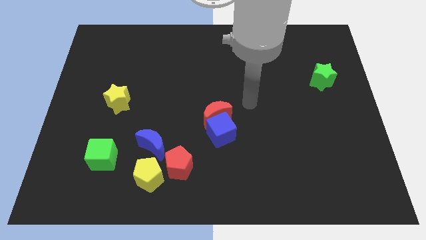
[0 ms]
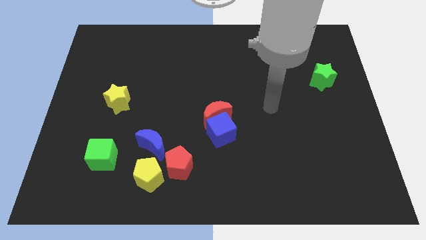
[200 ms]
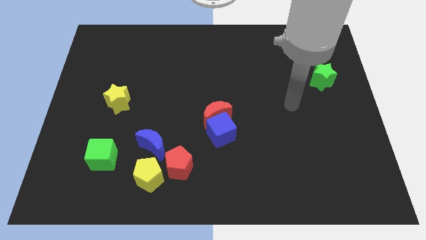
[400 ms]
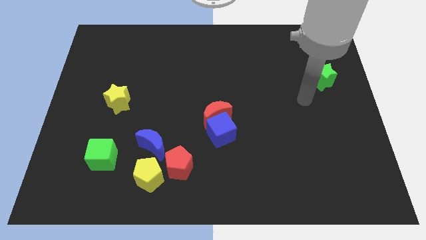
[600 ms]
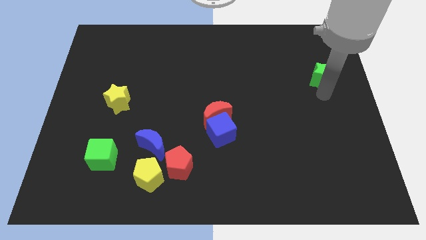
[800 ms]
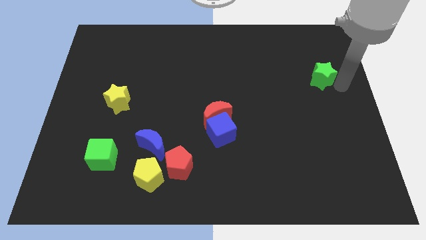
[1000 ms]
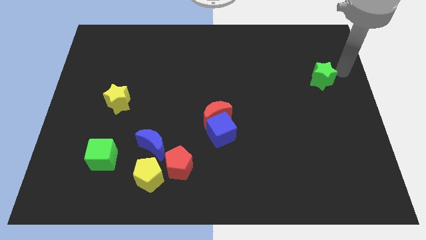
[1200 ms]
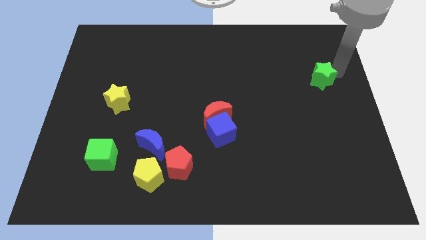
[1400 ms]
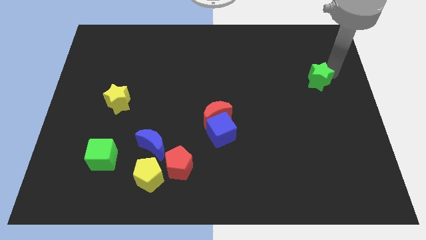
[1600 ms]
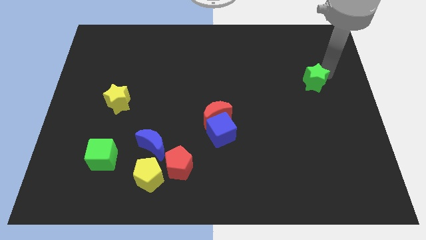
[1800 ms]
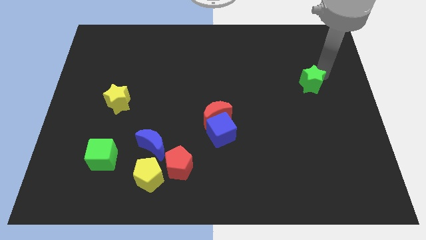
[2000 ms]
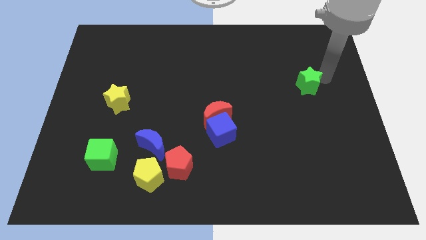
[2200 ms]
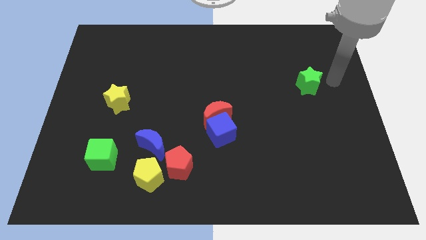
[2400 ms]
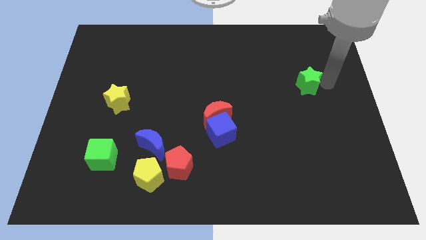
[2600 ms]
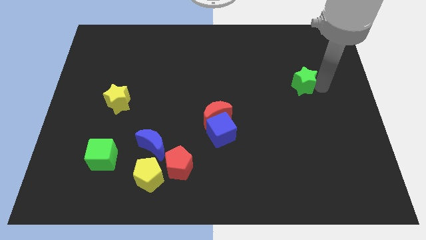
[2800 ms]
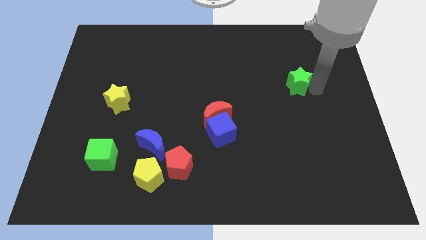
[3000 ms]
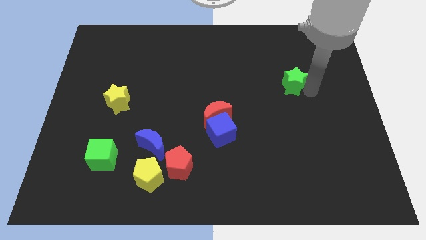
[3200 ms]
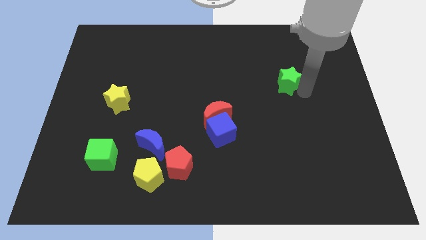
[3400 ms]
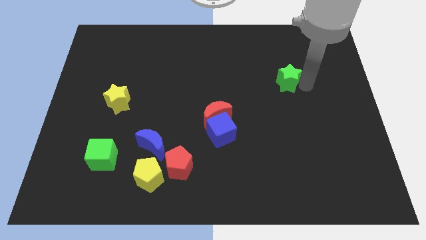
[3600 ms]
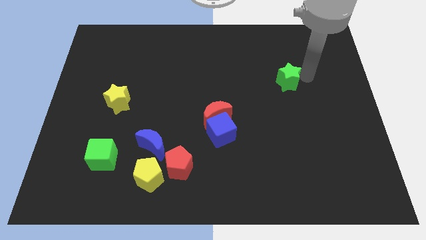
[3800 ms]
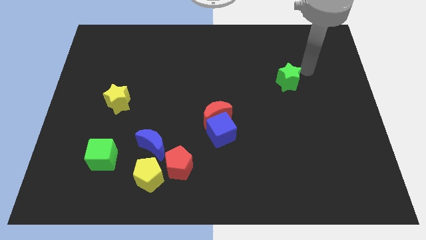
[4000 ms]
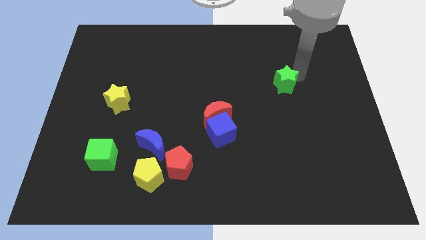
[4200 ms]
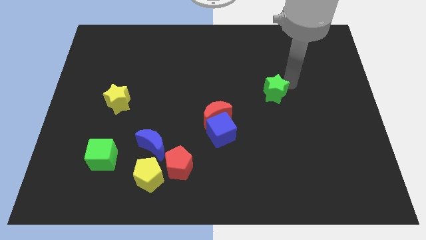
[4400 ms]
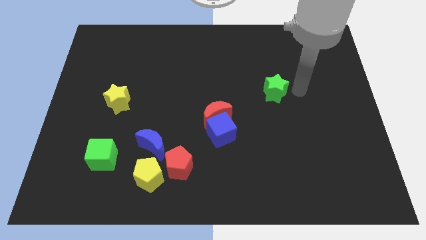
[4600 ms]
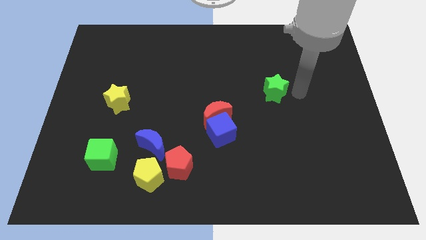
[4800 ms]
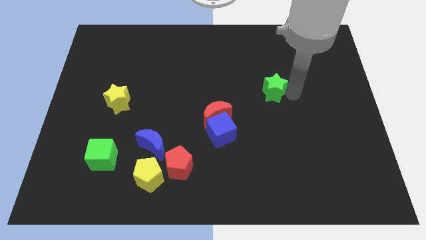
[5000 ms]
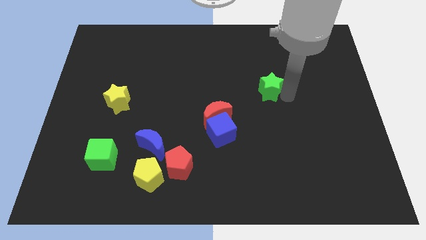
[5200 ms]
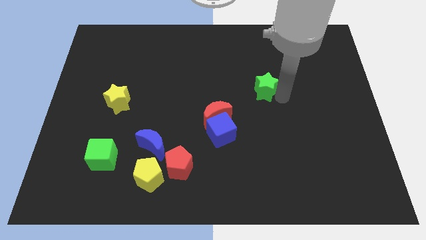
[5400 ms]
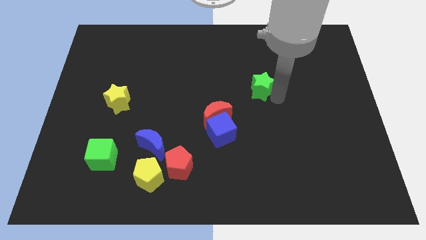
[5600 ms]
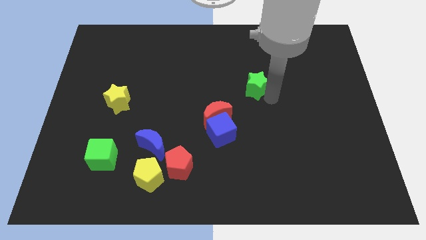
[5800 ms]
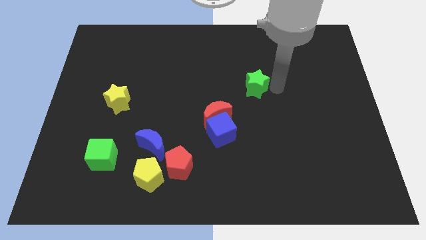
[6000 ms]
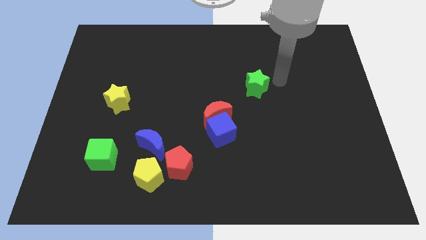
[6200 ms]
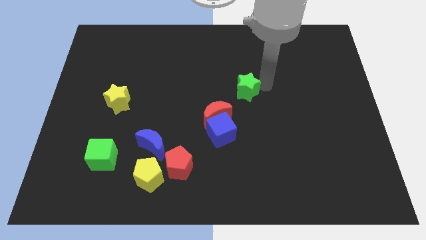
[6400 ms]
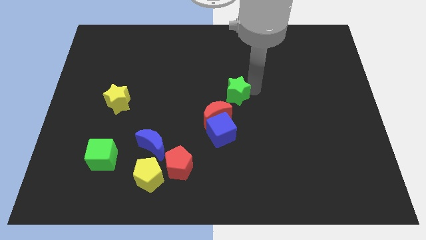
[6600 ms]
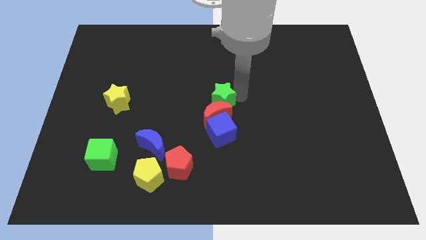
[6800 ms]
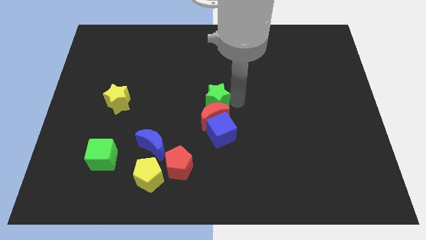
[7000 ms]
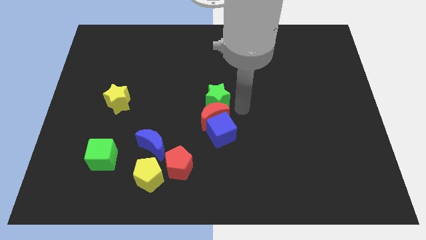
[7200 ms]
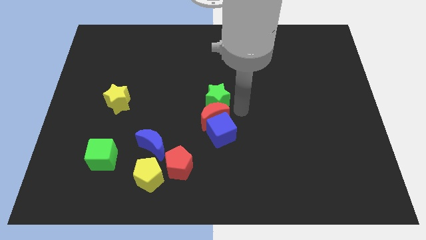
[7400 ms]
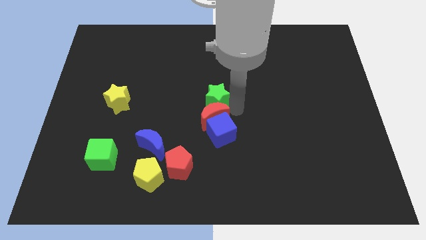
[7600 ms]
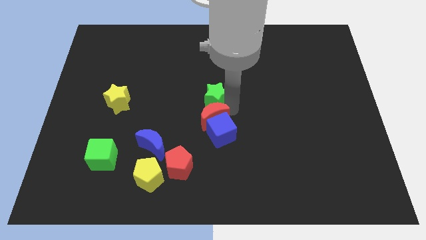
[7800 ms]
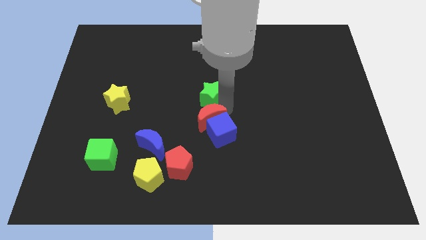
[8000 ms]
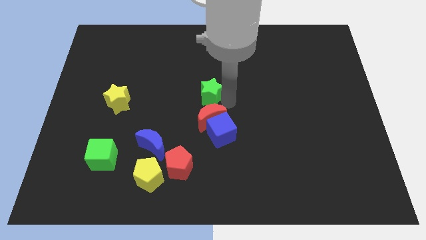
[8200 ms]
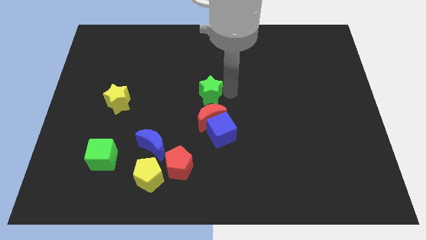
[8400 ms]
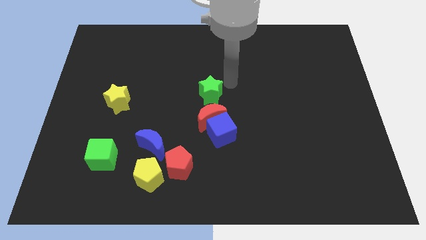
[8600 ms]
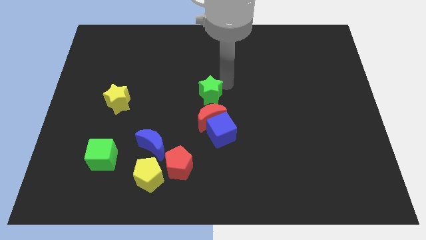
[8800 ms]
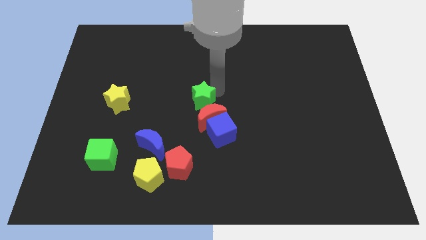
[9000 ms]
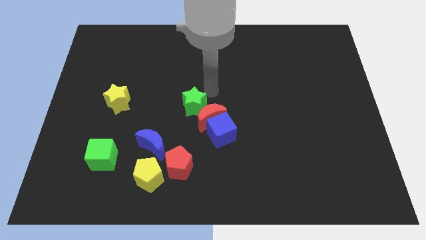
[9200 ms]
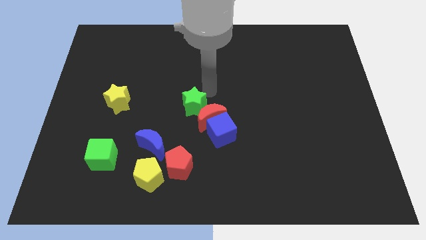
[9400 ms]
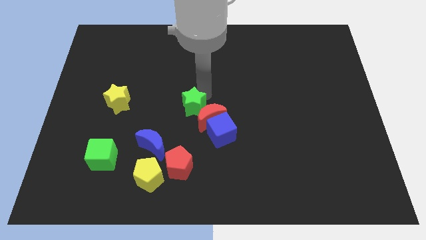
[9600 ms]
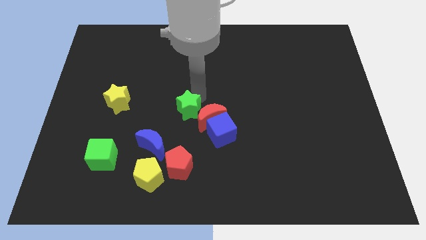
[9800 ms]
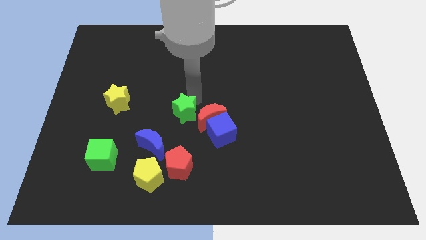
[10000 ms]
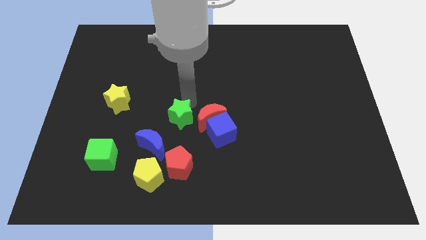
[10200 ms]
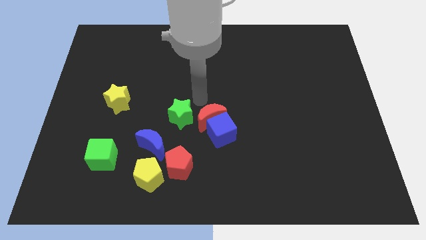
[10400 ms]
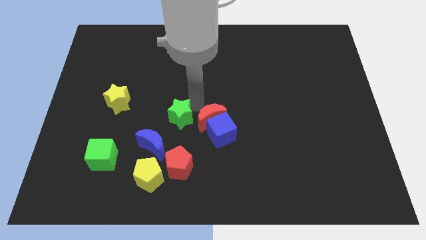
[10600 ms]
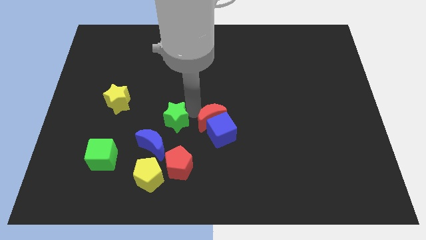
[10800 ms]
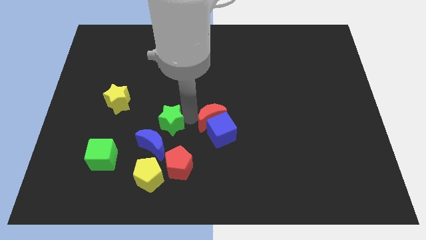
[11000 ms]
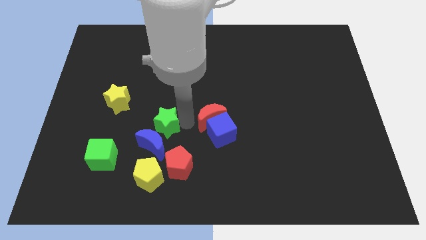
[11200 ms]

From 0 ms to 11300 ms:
slide the green star next to the blue moon

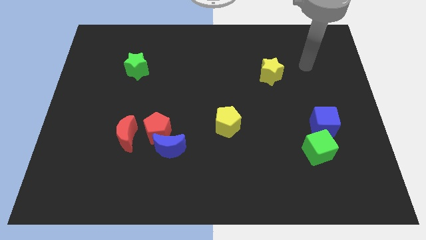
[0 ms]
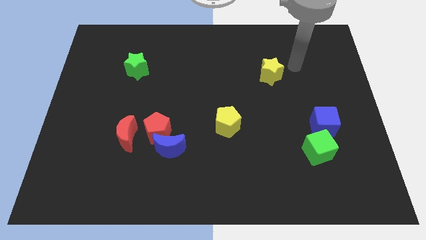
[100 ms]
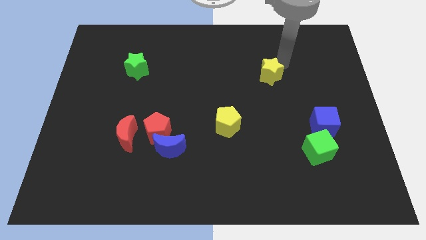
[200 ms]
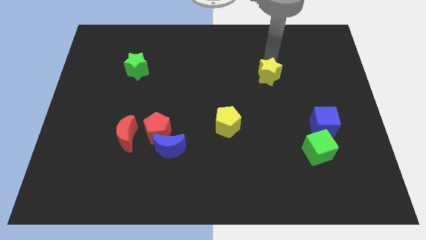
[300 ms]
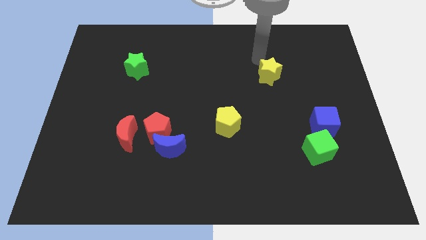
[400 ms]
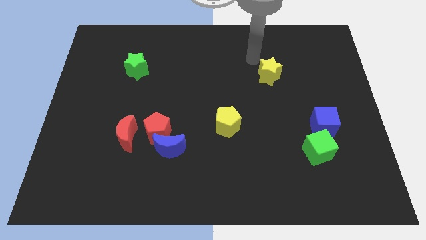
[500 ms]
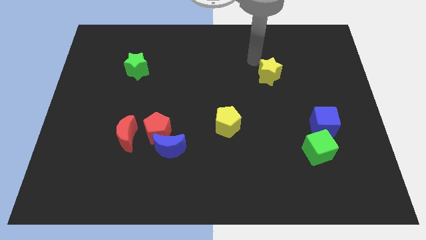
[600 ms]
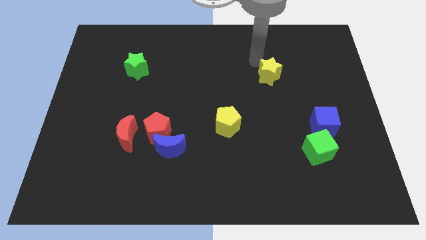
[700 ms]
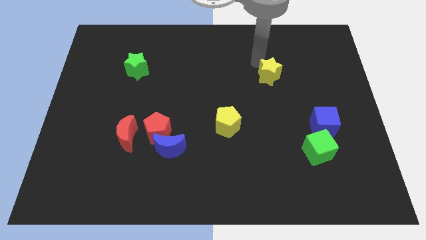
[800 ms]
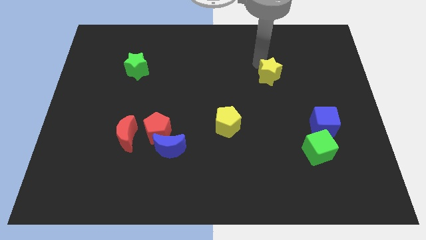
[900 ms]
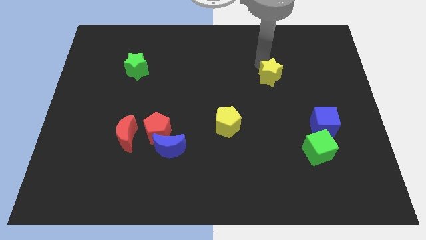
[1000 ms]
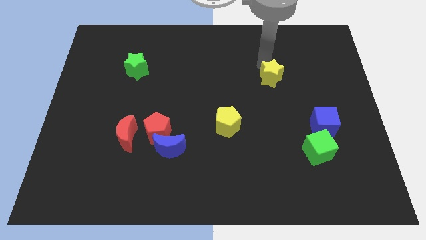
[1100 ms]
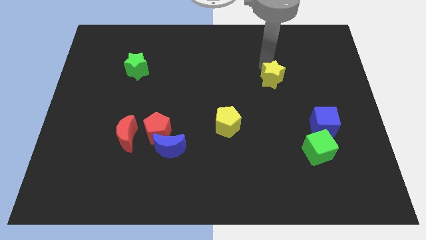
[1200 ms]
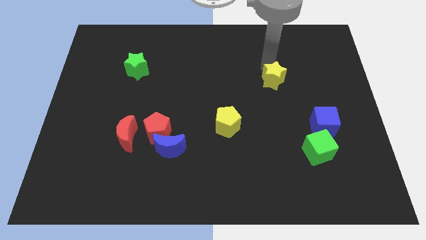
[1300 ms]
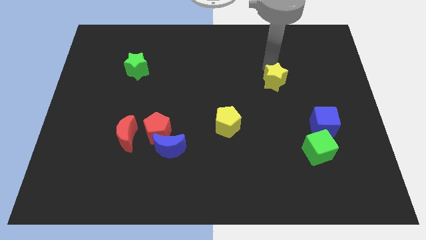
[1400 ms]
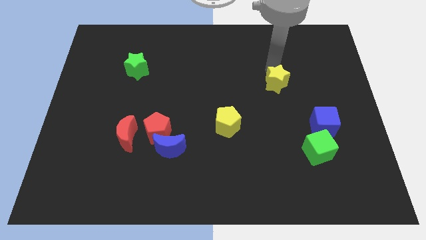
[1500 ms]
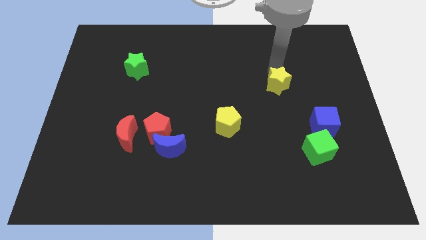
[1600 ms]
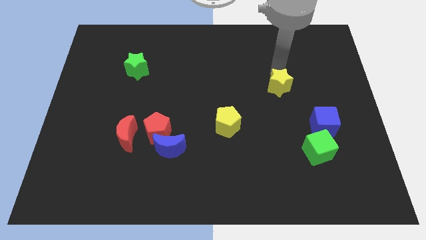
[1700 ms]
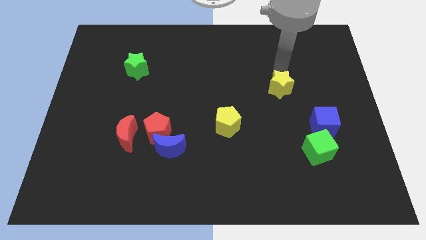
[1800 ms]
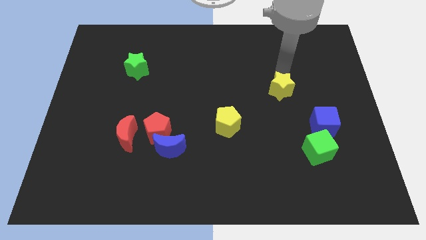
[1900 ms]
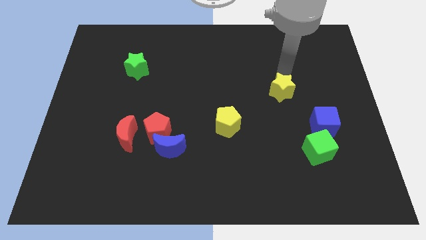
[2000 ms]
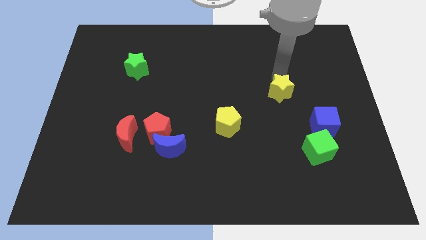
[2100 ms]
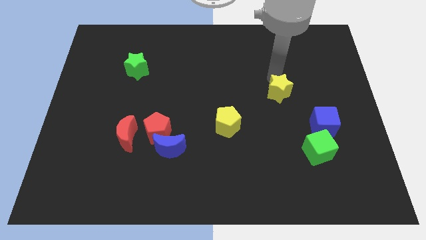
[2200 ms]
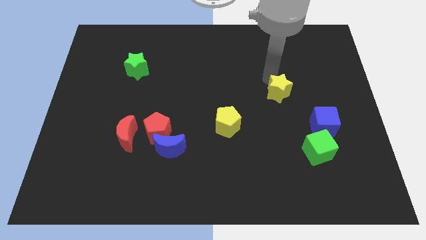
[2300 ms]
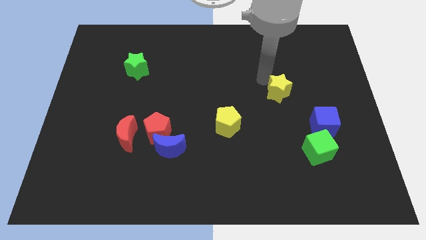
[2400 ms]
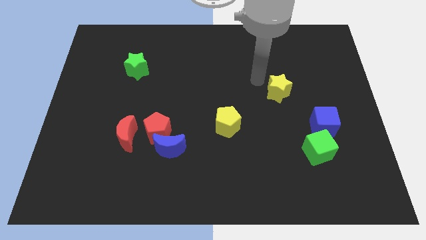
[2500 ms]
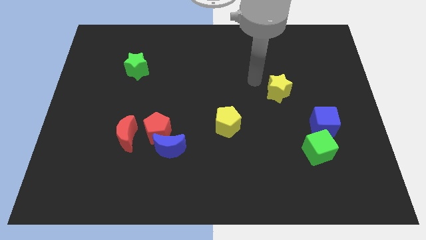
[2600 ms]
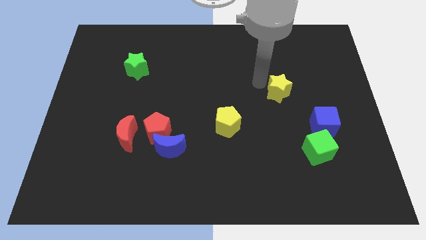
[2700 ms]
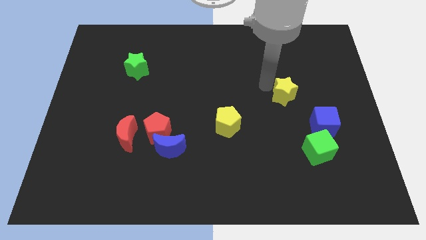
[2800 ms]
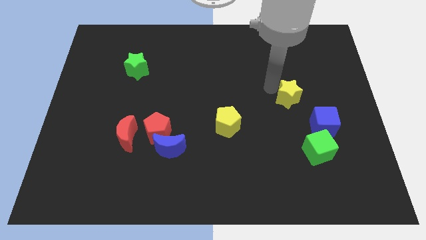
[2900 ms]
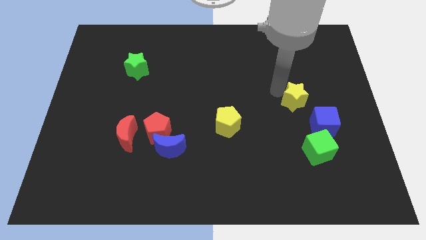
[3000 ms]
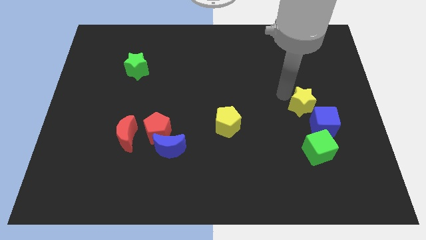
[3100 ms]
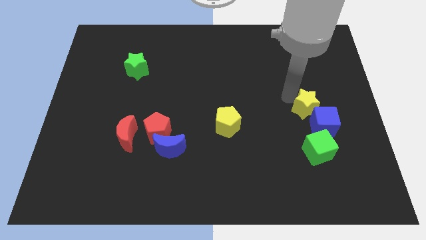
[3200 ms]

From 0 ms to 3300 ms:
move the yellow star to the blue cube
